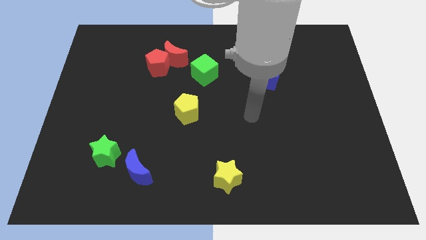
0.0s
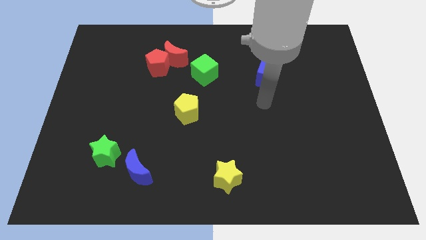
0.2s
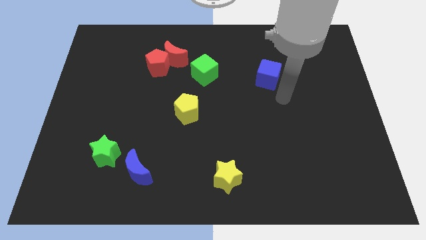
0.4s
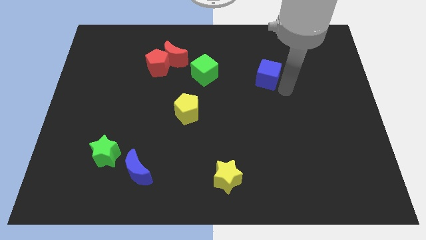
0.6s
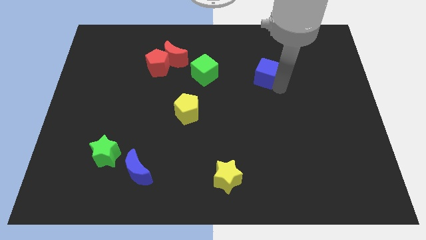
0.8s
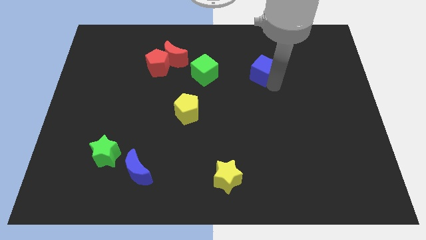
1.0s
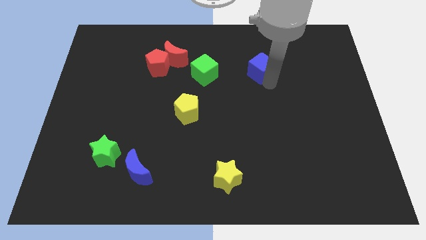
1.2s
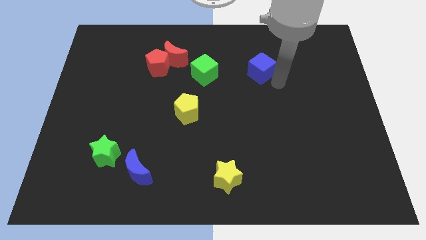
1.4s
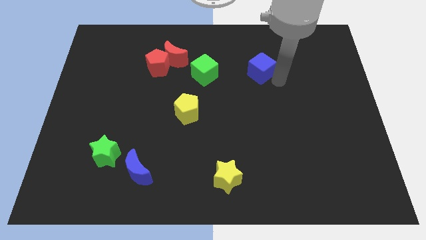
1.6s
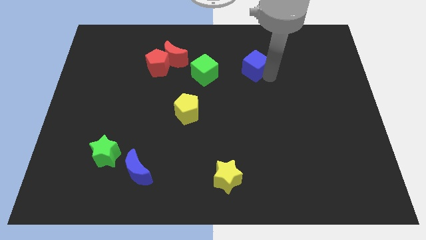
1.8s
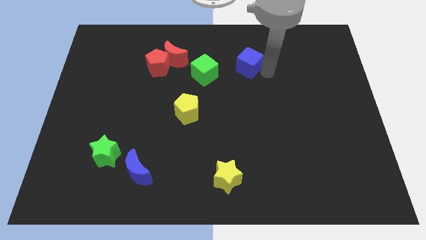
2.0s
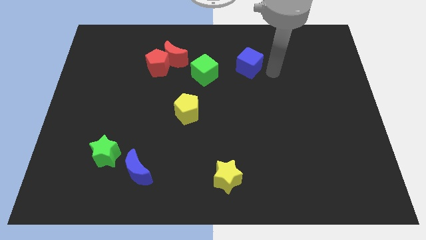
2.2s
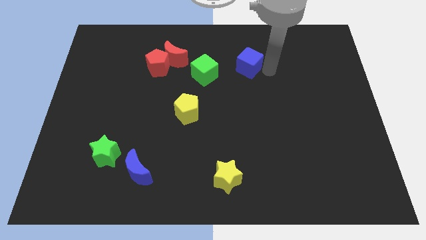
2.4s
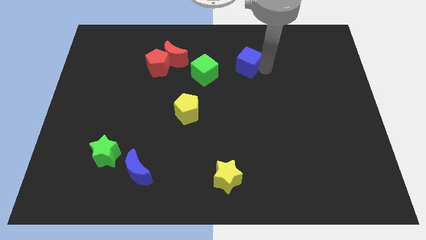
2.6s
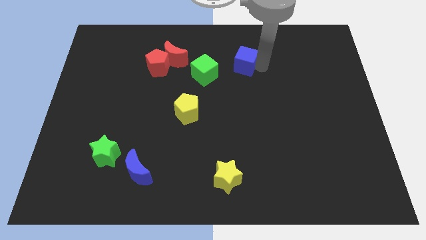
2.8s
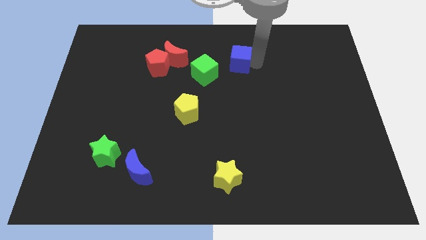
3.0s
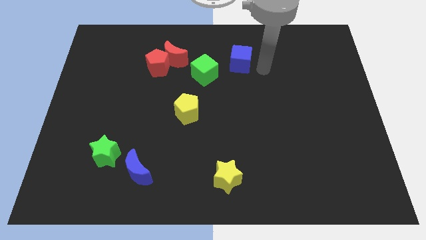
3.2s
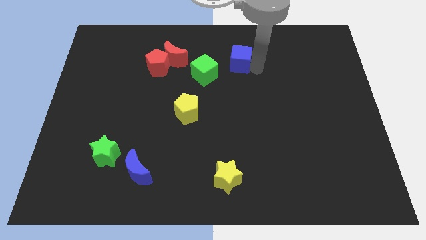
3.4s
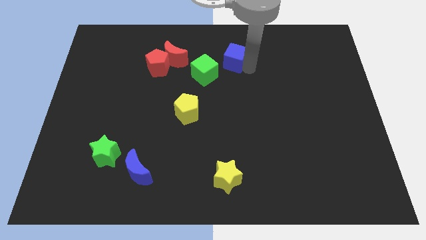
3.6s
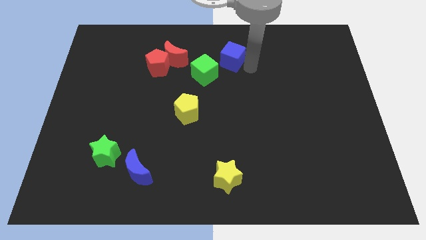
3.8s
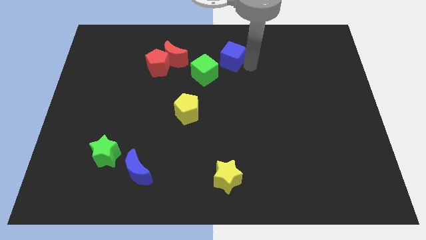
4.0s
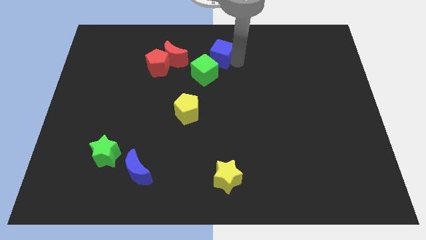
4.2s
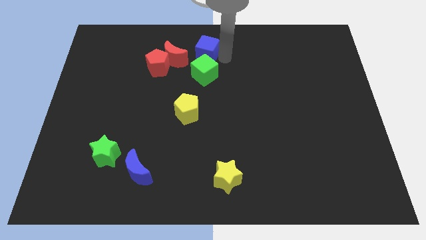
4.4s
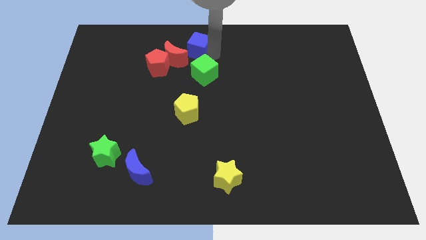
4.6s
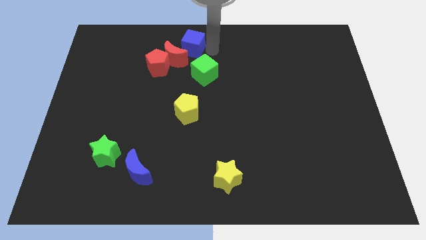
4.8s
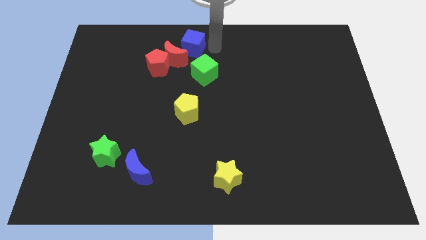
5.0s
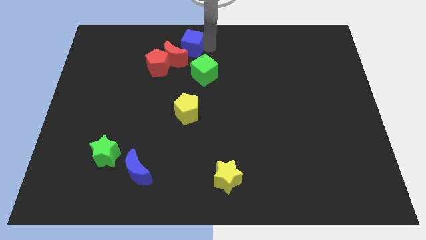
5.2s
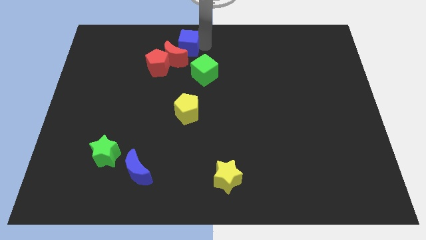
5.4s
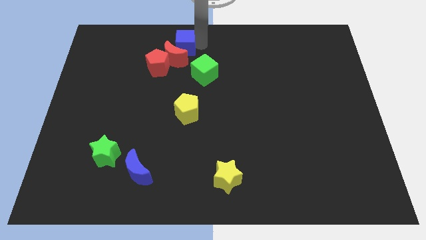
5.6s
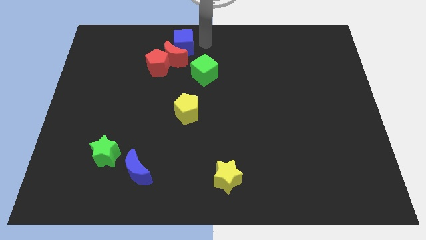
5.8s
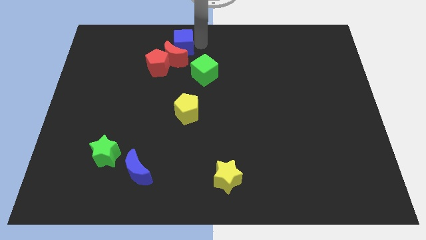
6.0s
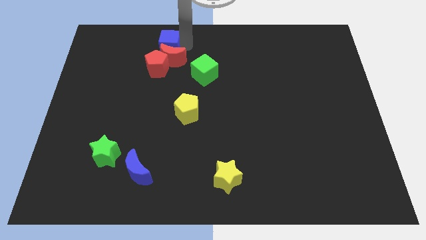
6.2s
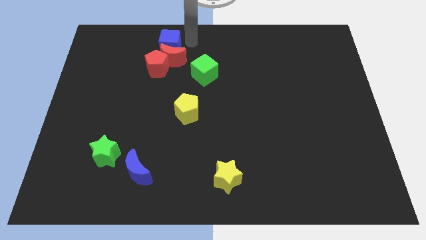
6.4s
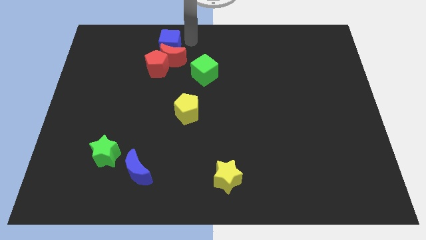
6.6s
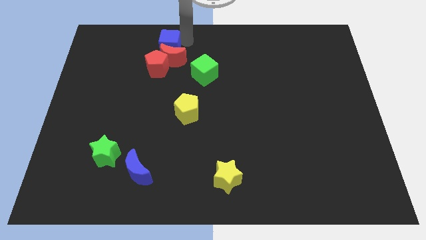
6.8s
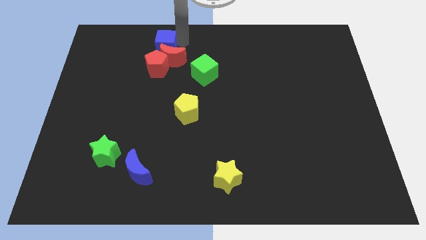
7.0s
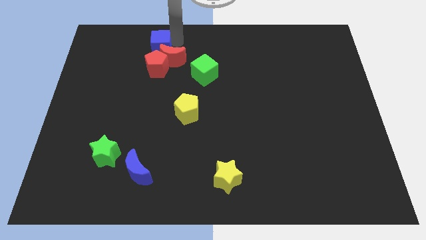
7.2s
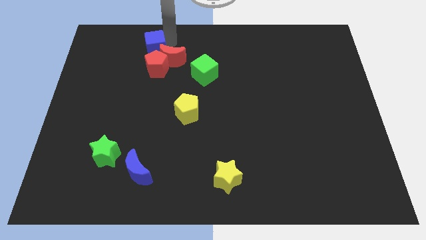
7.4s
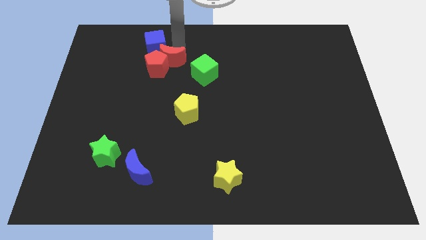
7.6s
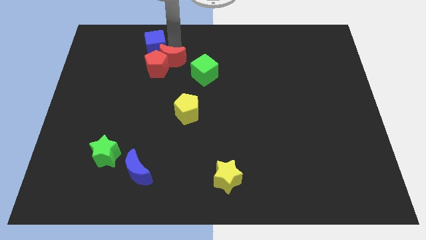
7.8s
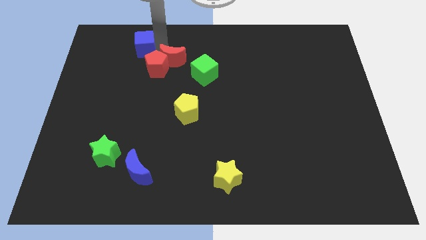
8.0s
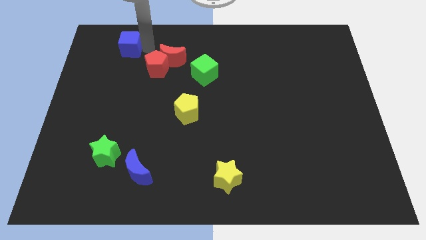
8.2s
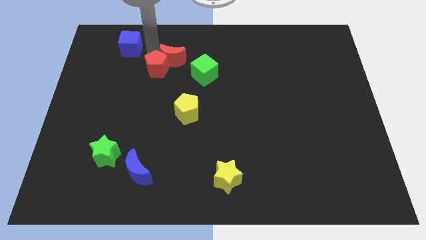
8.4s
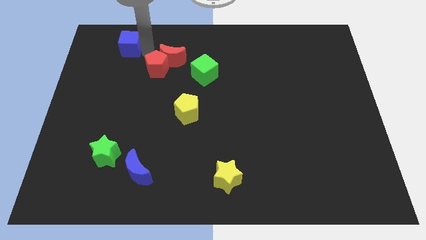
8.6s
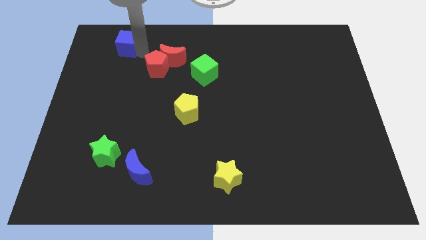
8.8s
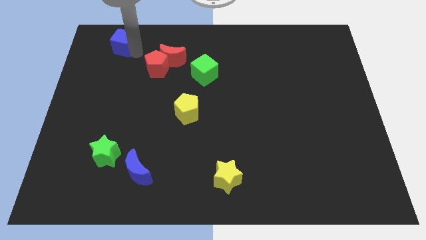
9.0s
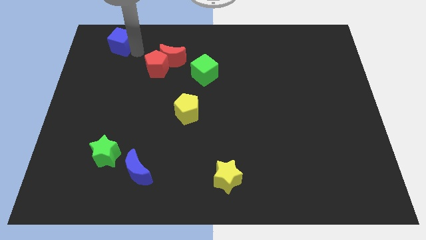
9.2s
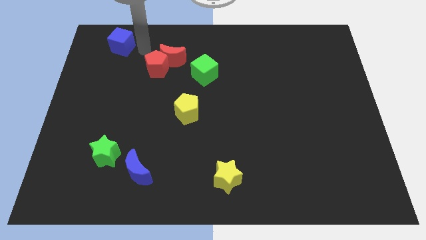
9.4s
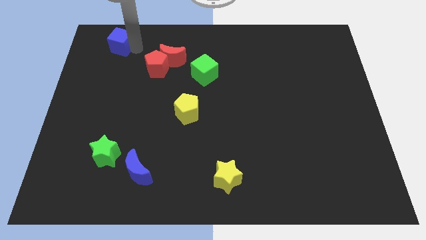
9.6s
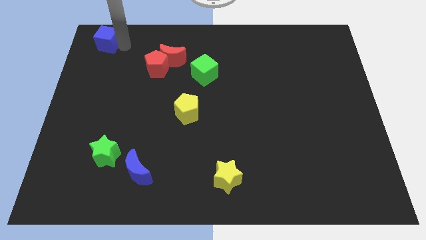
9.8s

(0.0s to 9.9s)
push the blue cube to the top left of the board
